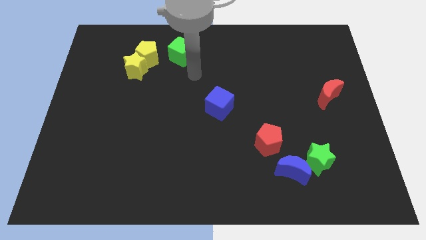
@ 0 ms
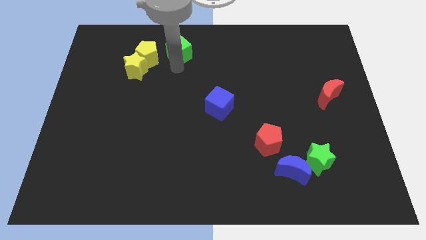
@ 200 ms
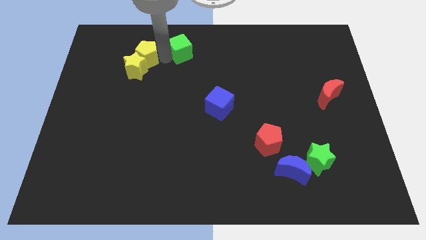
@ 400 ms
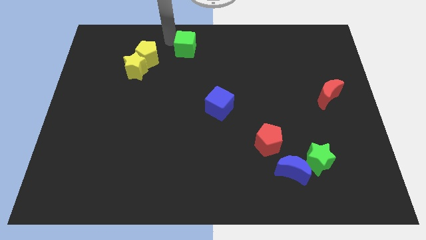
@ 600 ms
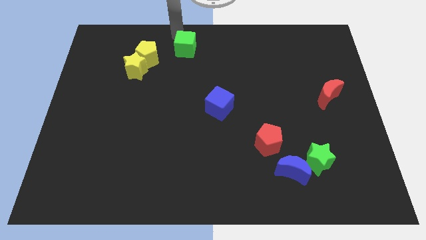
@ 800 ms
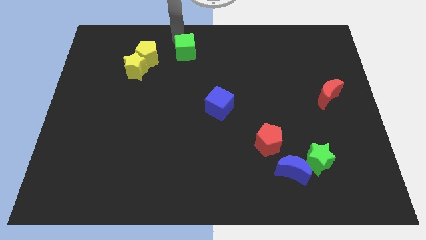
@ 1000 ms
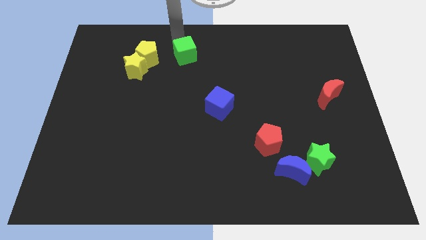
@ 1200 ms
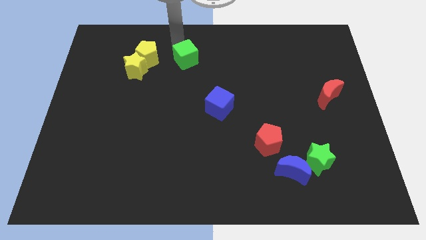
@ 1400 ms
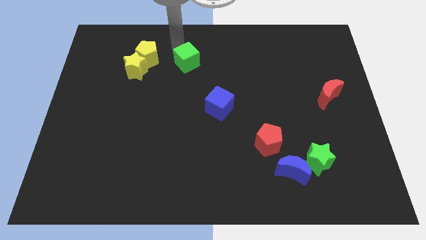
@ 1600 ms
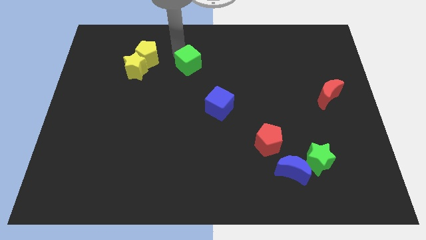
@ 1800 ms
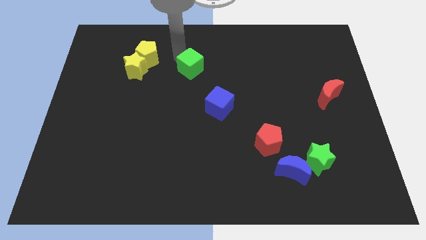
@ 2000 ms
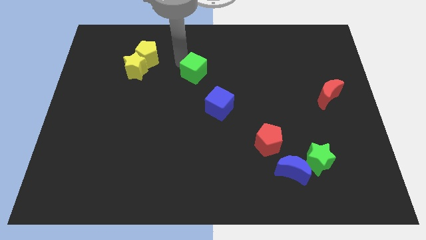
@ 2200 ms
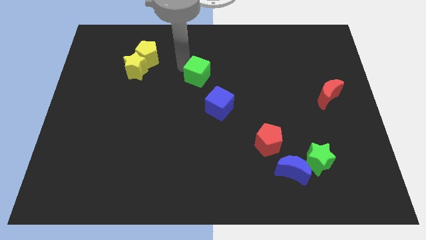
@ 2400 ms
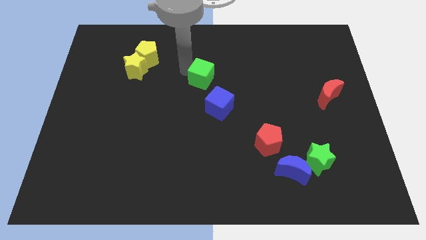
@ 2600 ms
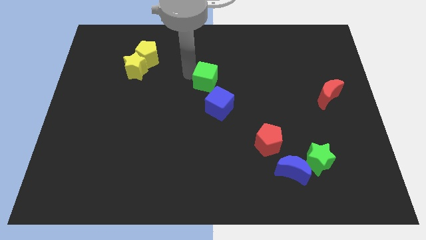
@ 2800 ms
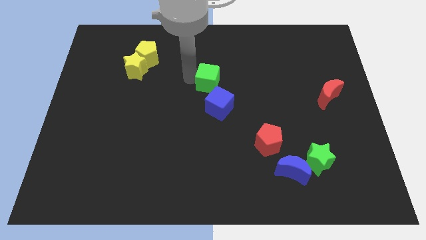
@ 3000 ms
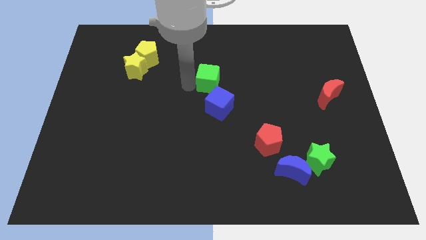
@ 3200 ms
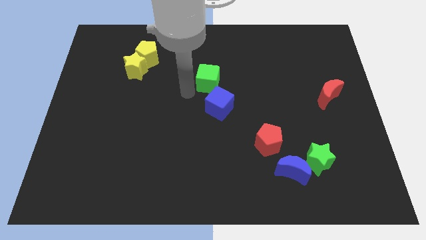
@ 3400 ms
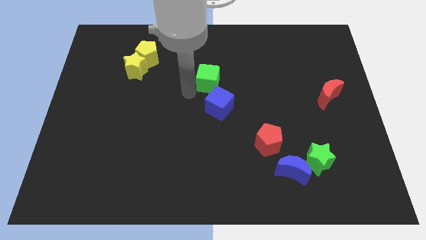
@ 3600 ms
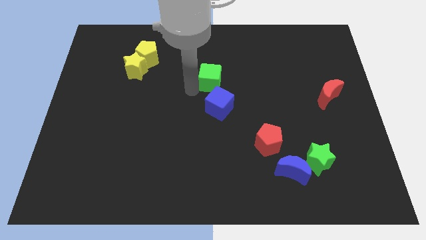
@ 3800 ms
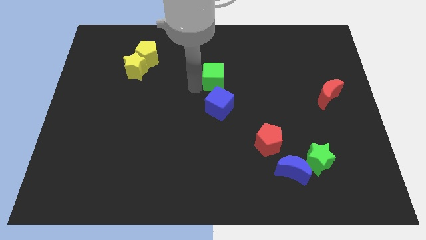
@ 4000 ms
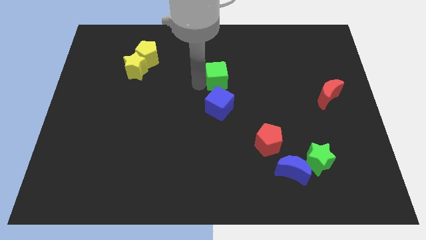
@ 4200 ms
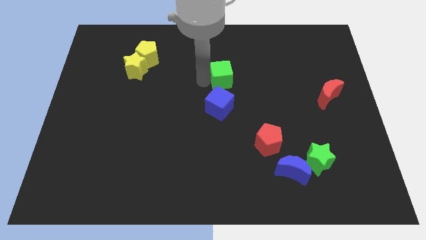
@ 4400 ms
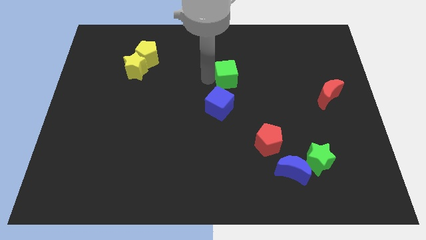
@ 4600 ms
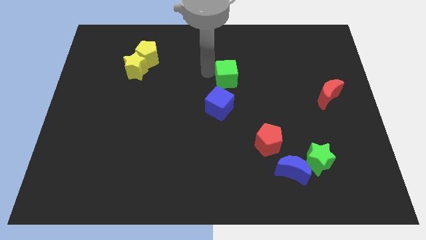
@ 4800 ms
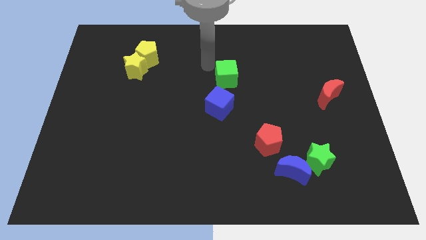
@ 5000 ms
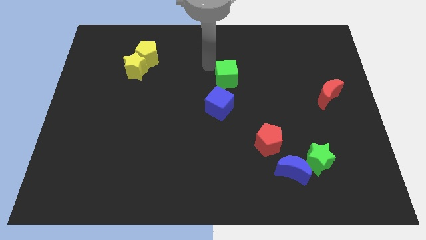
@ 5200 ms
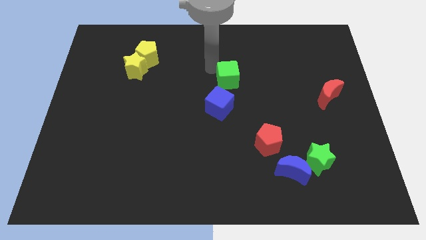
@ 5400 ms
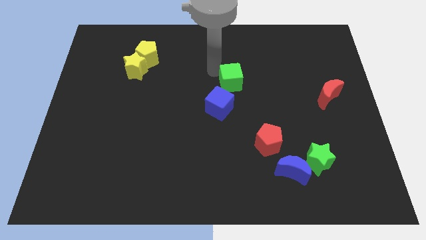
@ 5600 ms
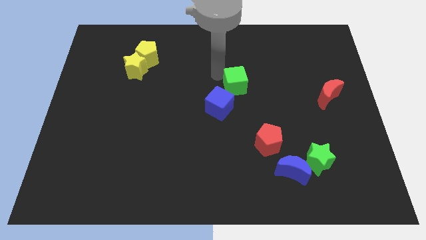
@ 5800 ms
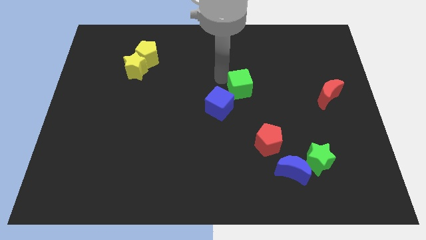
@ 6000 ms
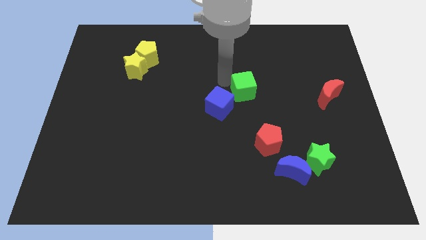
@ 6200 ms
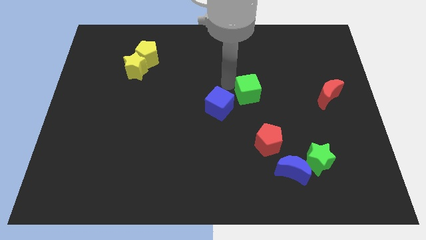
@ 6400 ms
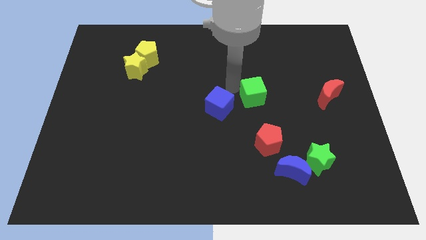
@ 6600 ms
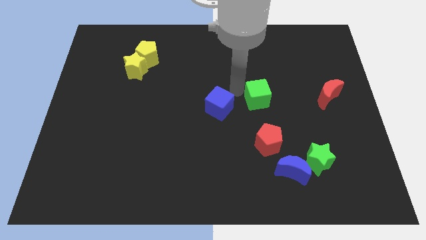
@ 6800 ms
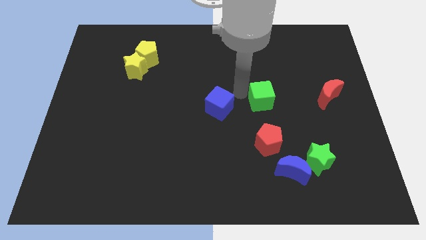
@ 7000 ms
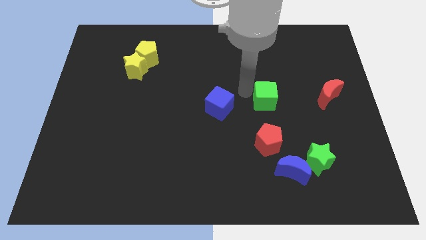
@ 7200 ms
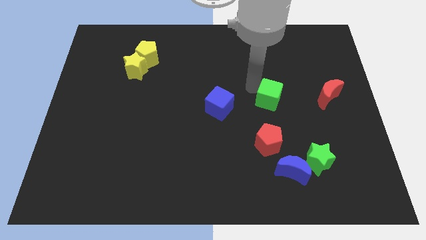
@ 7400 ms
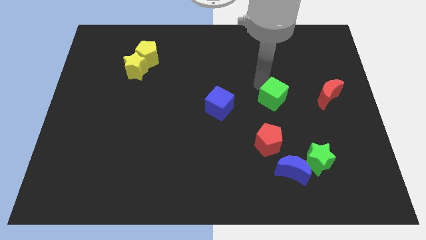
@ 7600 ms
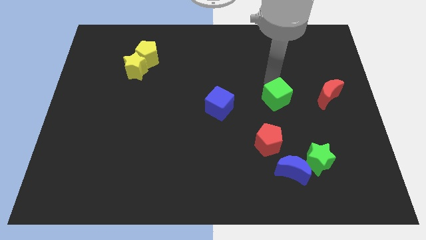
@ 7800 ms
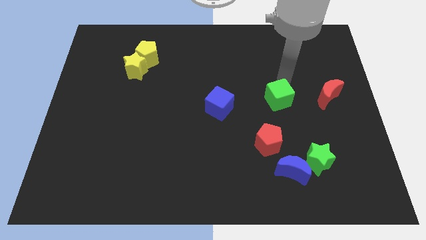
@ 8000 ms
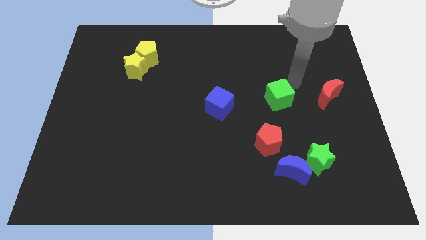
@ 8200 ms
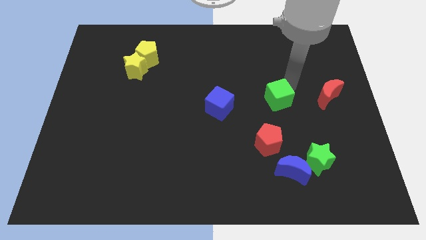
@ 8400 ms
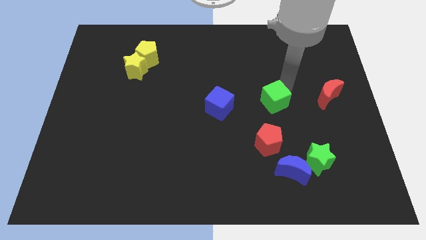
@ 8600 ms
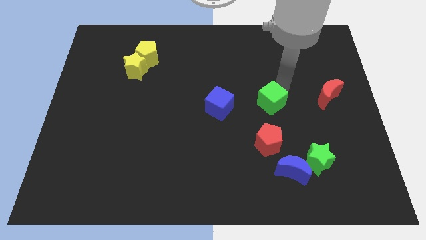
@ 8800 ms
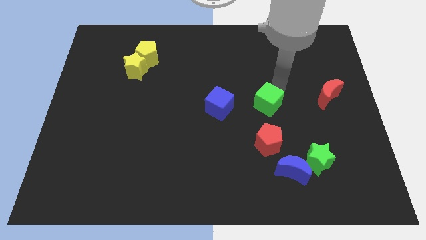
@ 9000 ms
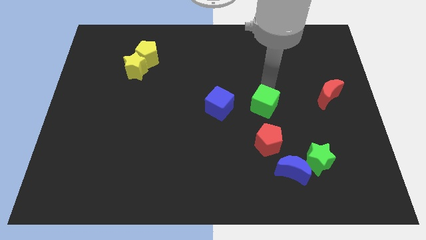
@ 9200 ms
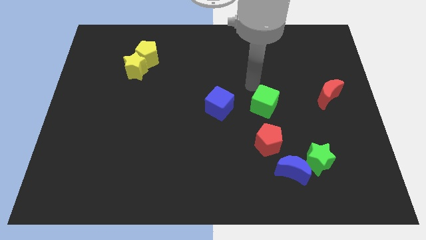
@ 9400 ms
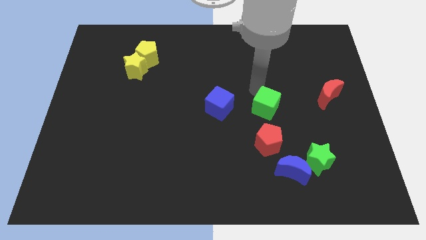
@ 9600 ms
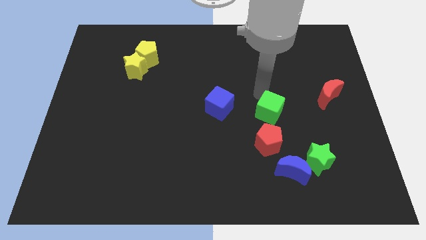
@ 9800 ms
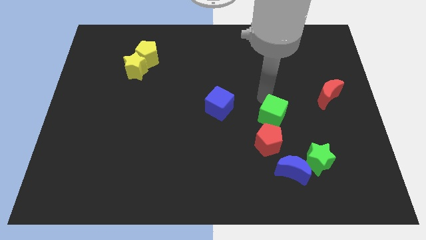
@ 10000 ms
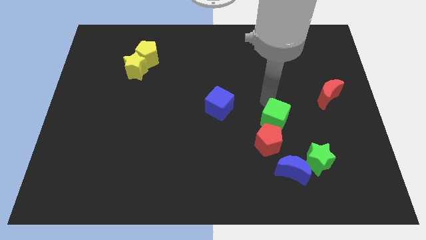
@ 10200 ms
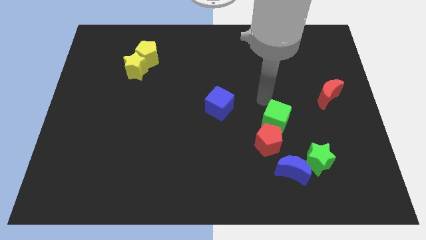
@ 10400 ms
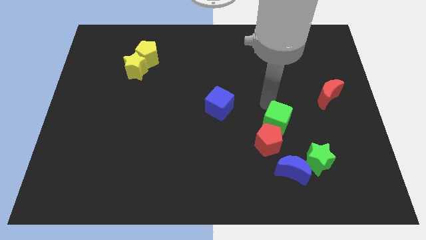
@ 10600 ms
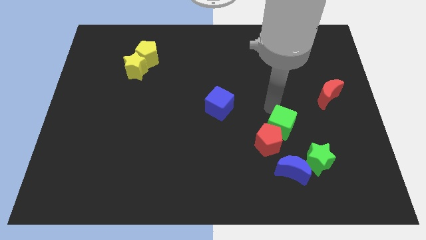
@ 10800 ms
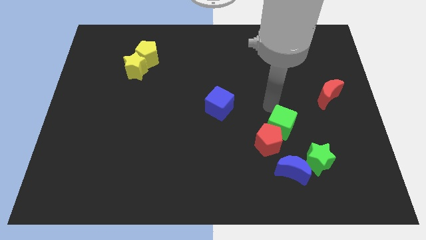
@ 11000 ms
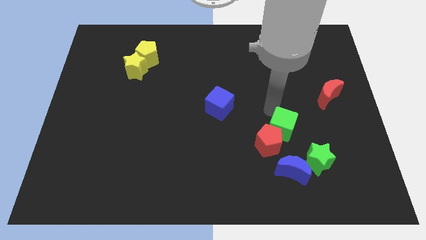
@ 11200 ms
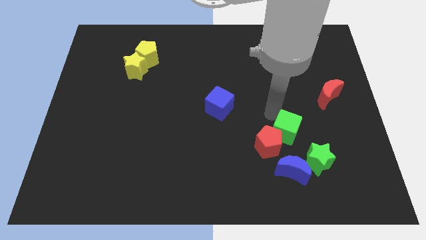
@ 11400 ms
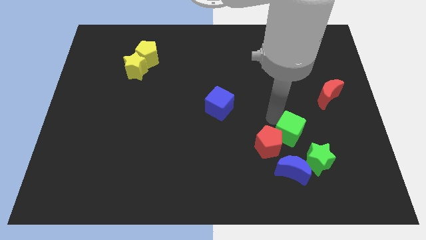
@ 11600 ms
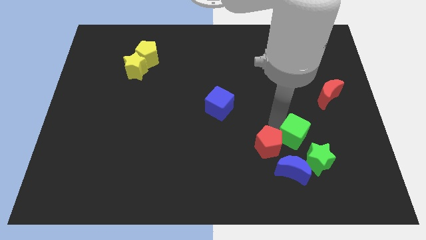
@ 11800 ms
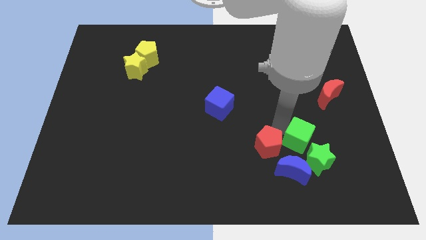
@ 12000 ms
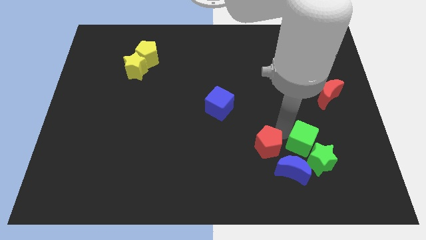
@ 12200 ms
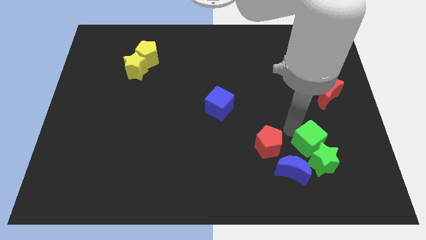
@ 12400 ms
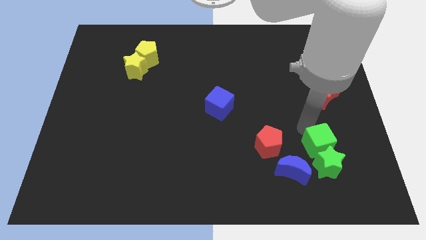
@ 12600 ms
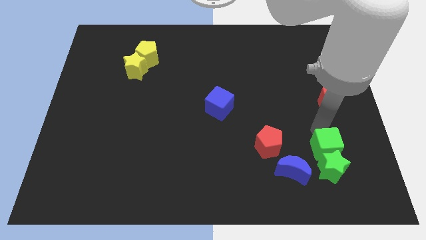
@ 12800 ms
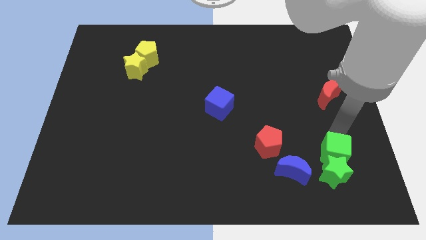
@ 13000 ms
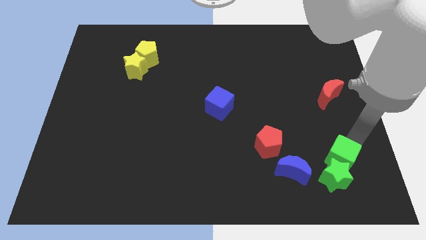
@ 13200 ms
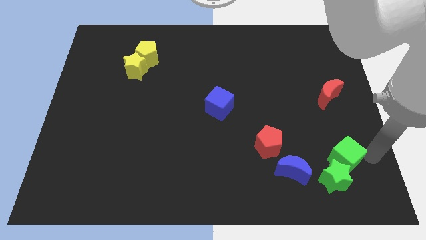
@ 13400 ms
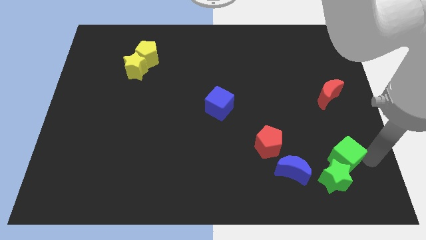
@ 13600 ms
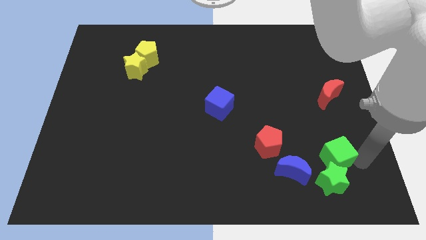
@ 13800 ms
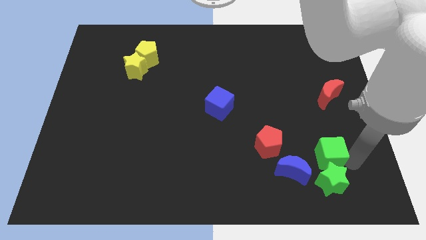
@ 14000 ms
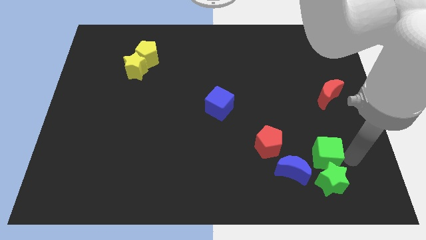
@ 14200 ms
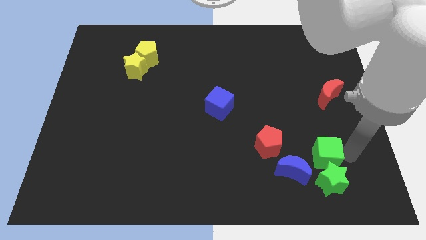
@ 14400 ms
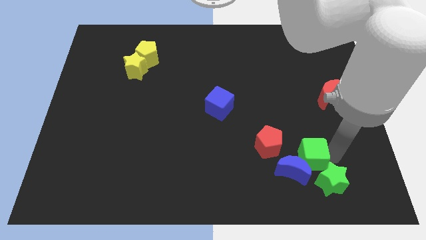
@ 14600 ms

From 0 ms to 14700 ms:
push the green cube close to the blue moon
